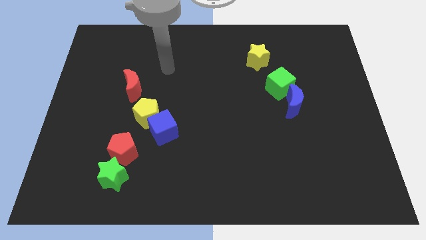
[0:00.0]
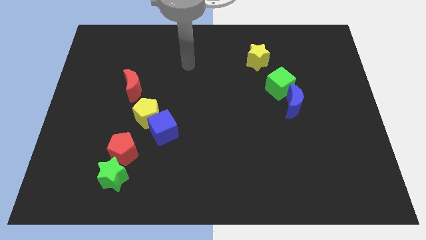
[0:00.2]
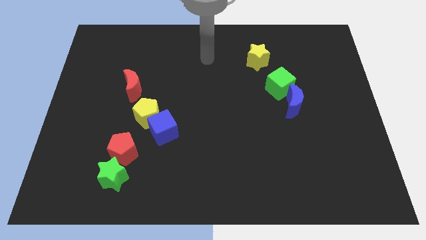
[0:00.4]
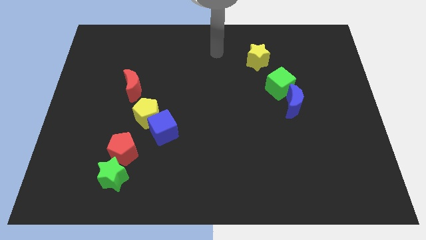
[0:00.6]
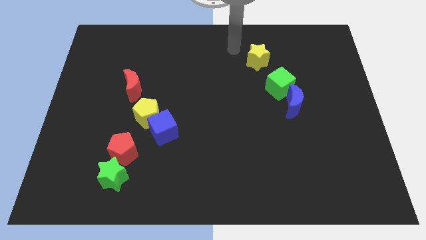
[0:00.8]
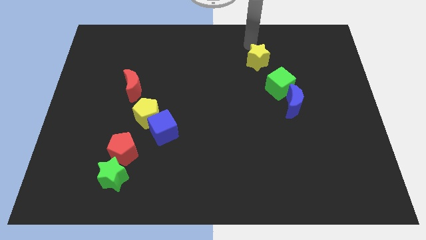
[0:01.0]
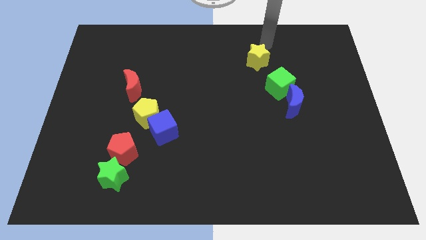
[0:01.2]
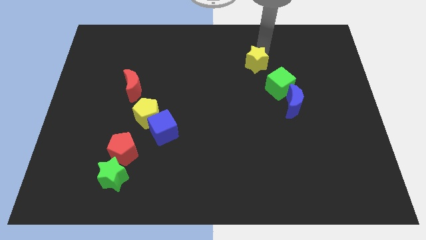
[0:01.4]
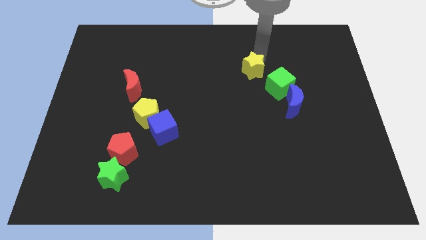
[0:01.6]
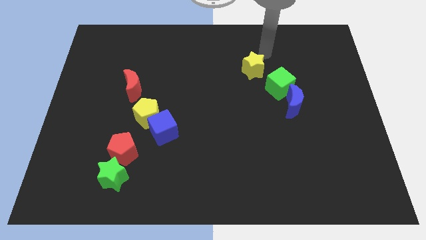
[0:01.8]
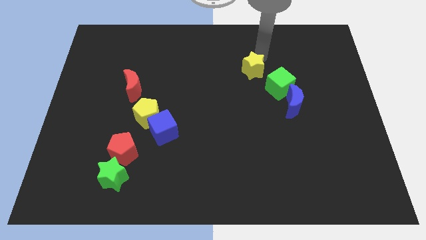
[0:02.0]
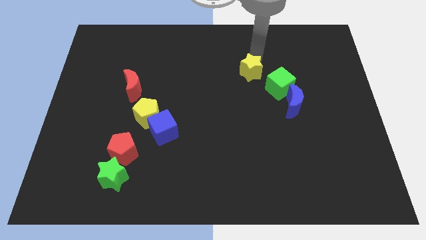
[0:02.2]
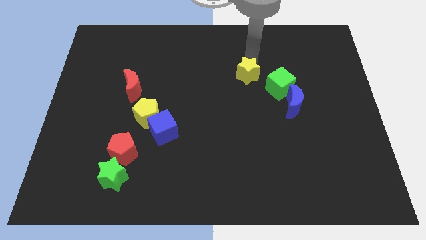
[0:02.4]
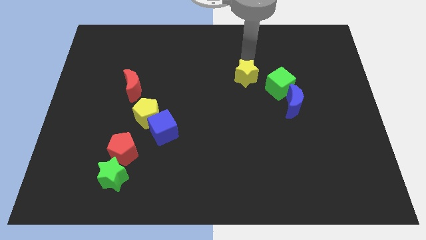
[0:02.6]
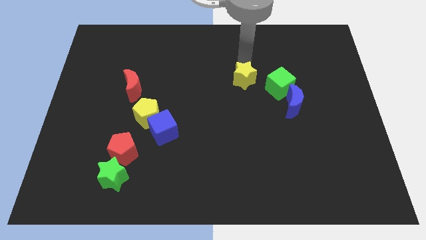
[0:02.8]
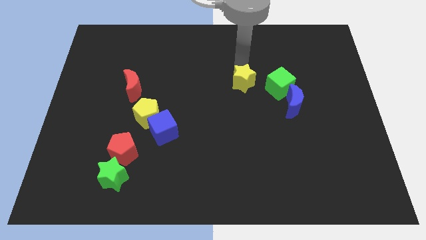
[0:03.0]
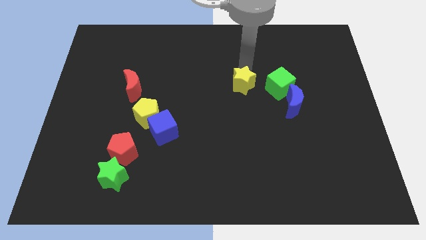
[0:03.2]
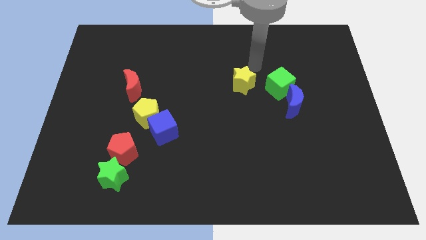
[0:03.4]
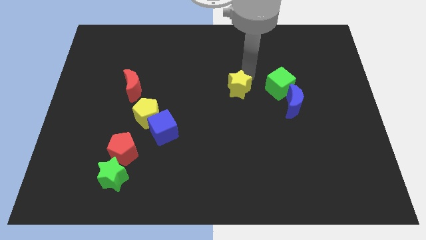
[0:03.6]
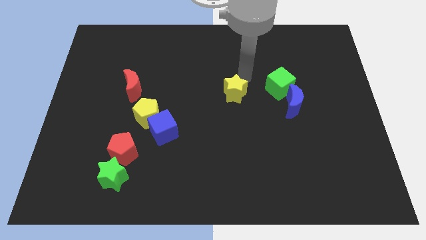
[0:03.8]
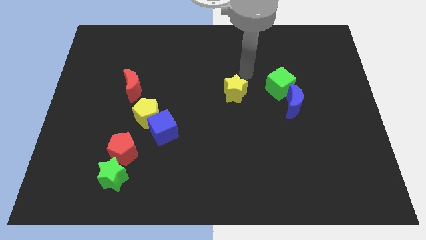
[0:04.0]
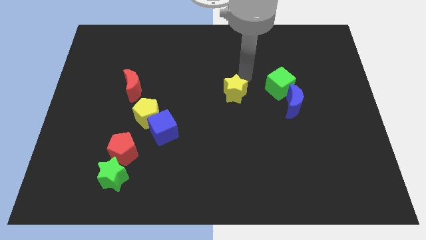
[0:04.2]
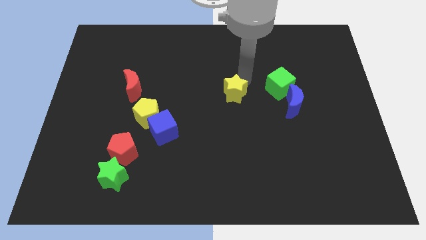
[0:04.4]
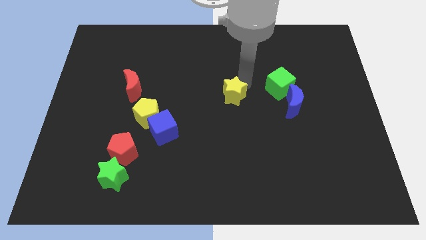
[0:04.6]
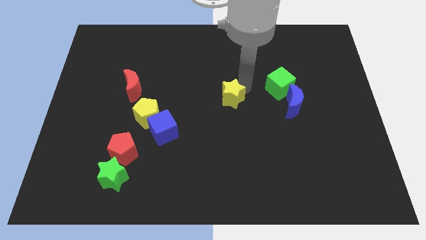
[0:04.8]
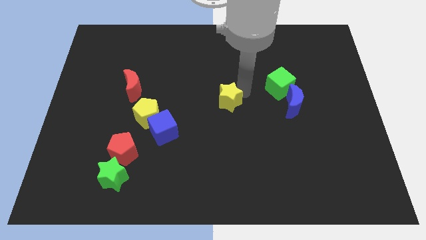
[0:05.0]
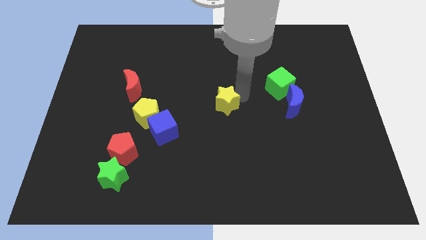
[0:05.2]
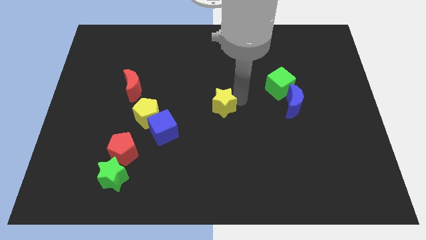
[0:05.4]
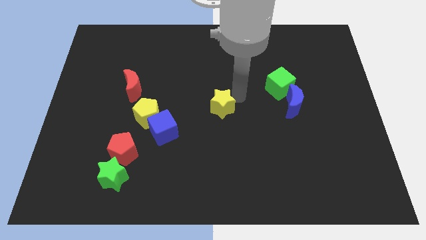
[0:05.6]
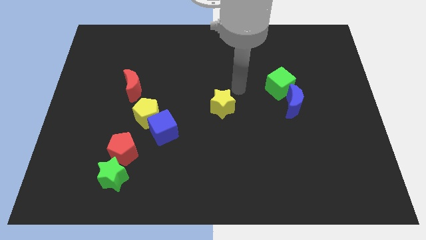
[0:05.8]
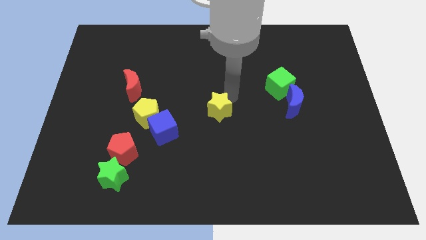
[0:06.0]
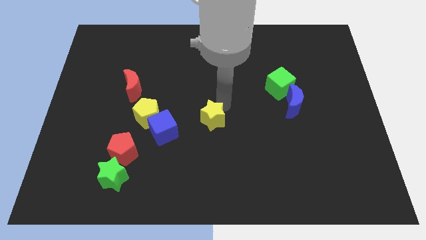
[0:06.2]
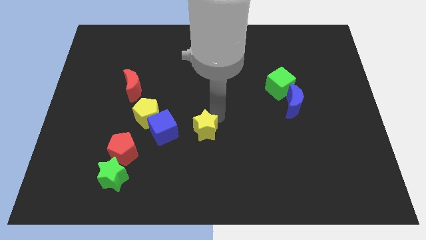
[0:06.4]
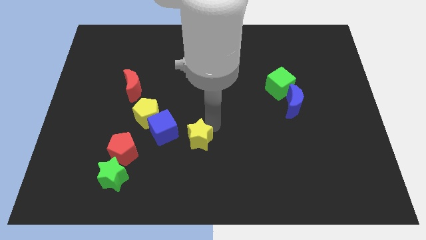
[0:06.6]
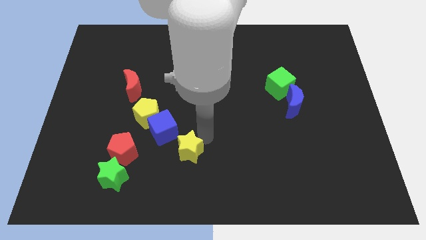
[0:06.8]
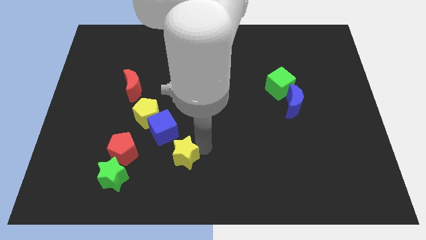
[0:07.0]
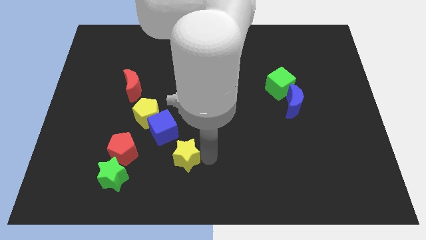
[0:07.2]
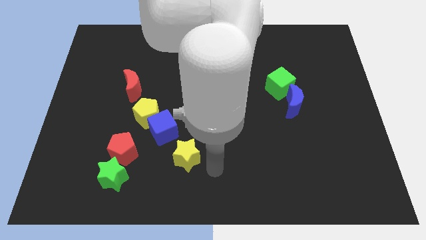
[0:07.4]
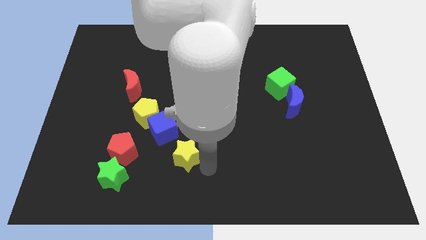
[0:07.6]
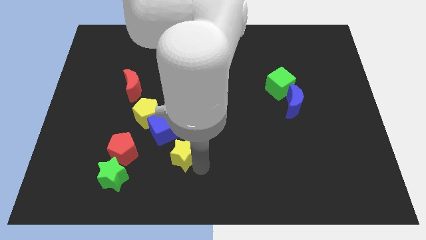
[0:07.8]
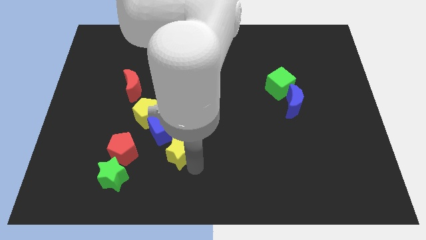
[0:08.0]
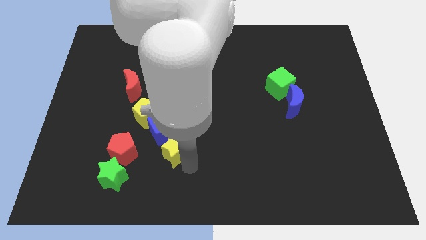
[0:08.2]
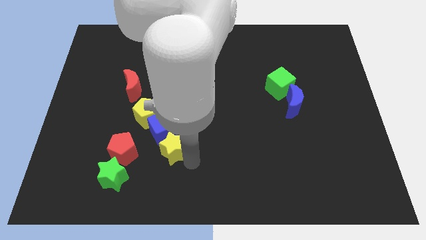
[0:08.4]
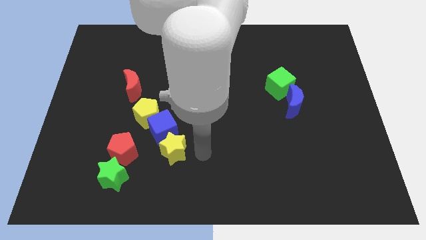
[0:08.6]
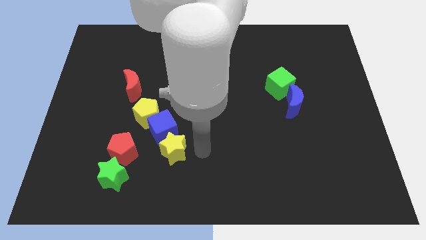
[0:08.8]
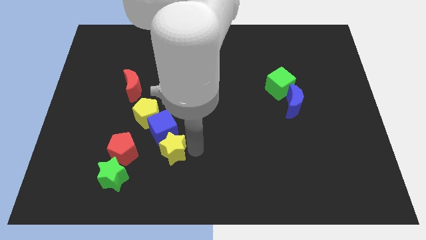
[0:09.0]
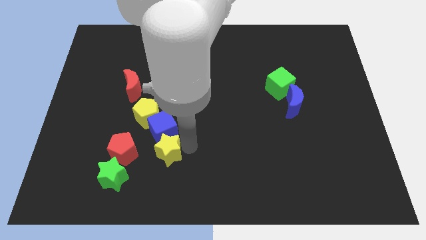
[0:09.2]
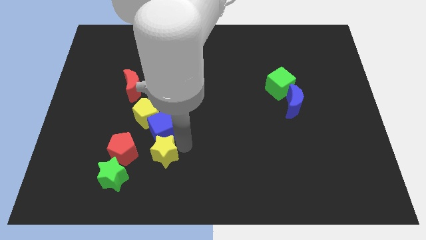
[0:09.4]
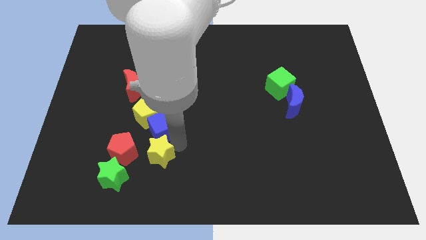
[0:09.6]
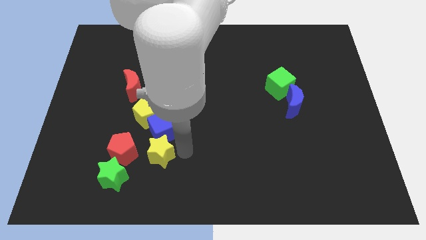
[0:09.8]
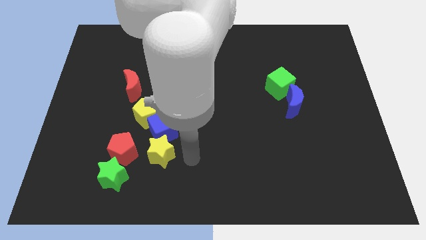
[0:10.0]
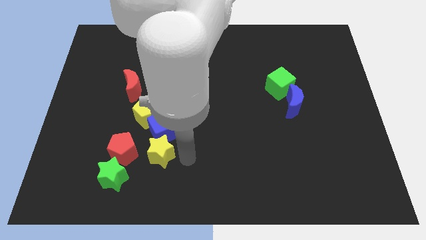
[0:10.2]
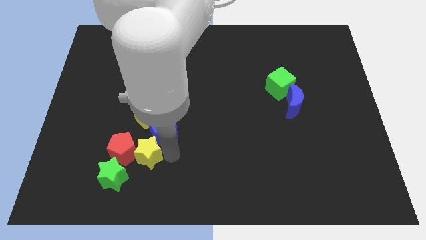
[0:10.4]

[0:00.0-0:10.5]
slide the yellow star close to the red pentagon

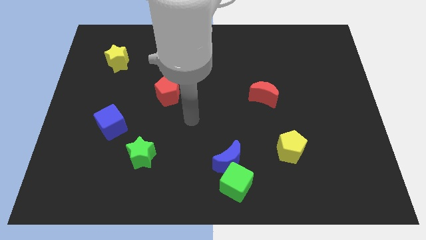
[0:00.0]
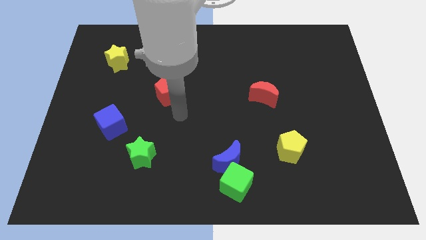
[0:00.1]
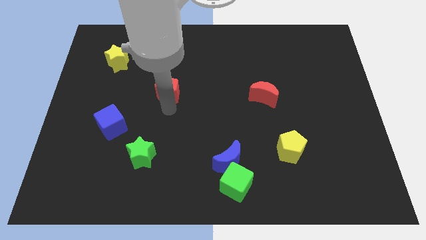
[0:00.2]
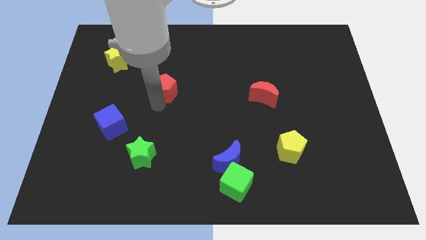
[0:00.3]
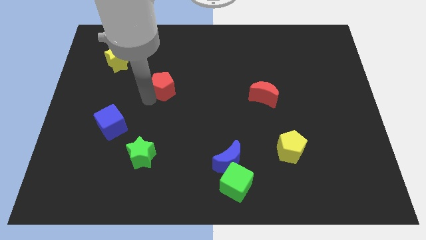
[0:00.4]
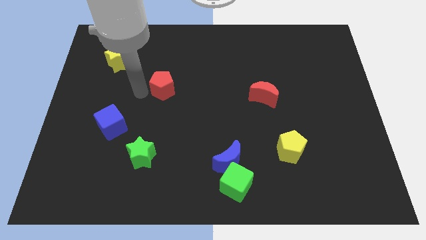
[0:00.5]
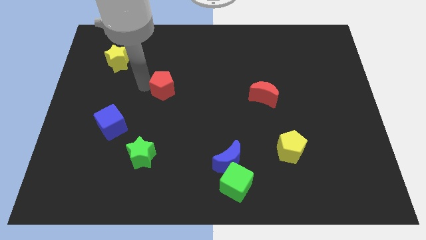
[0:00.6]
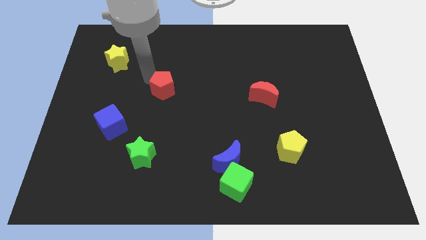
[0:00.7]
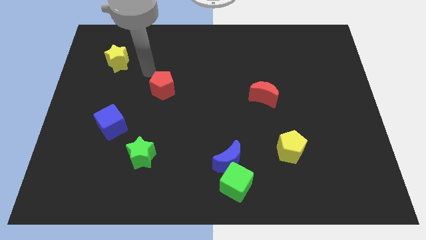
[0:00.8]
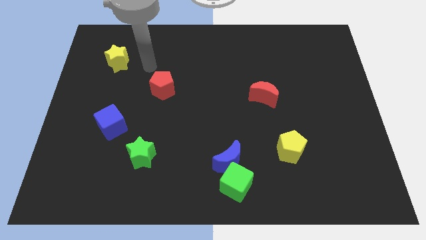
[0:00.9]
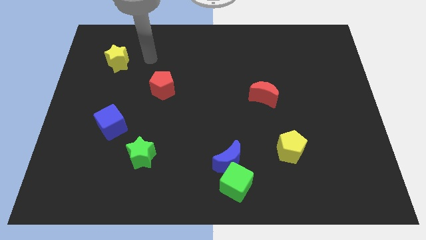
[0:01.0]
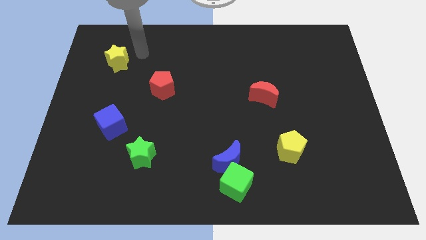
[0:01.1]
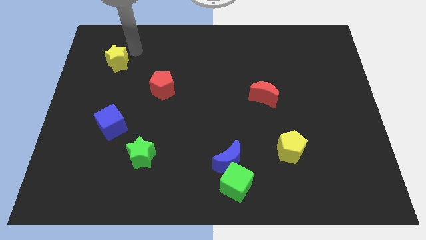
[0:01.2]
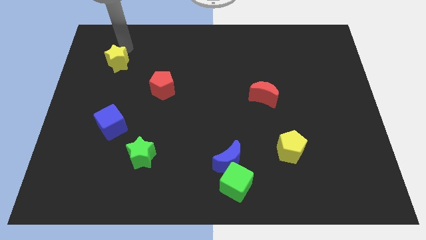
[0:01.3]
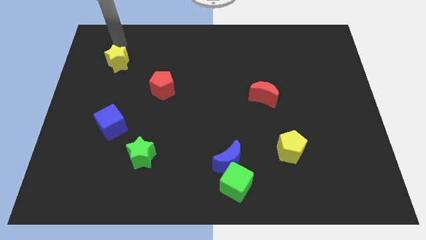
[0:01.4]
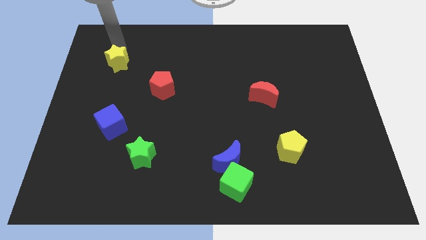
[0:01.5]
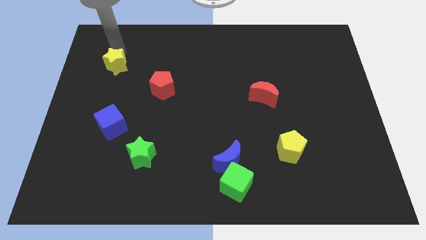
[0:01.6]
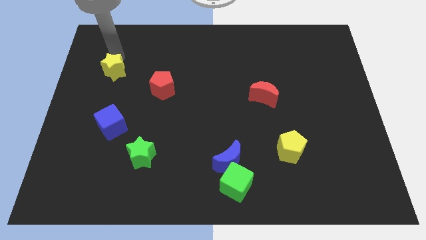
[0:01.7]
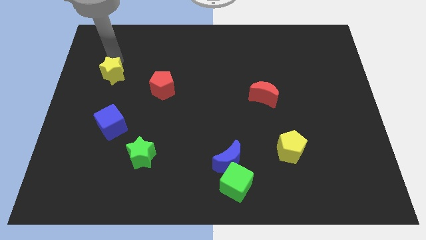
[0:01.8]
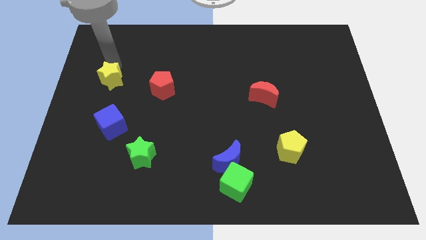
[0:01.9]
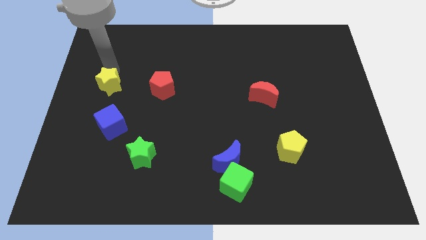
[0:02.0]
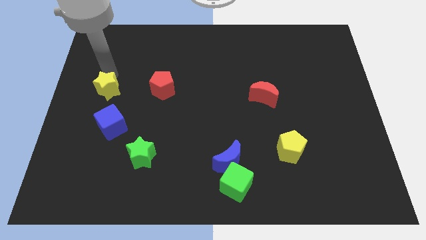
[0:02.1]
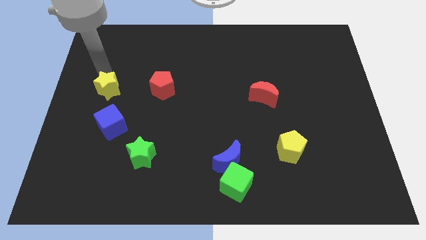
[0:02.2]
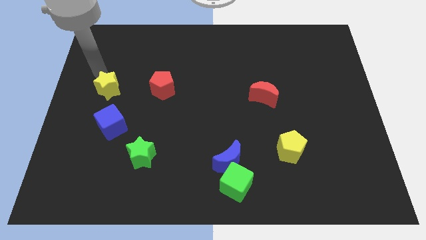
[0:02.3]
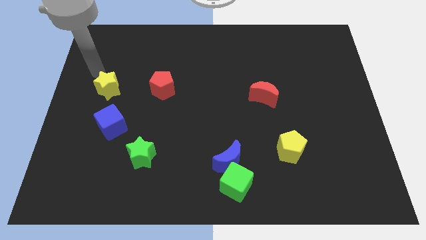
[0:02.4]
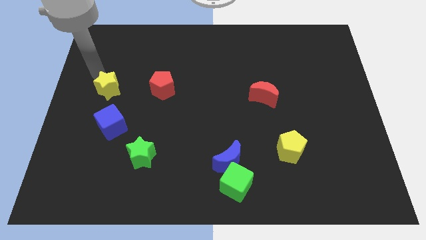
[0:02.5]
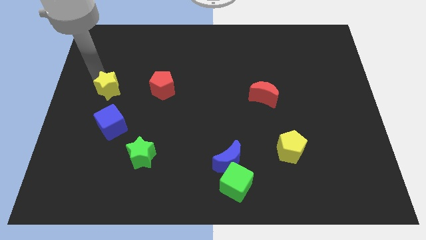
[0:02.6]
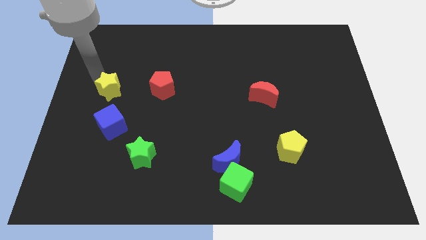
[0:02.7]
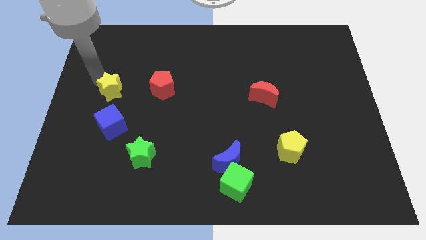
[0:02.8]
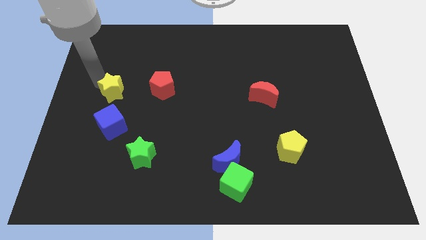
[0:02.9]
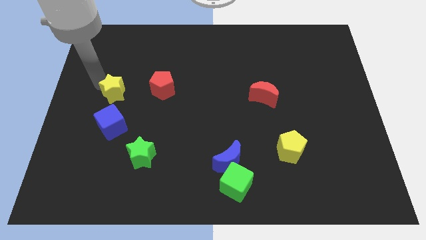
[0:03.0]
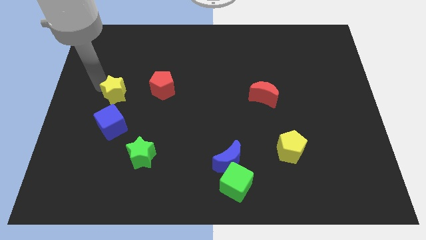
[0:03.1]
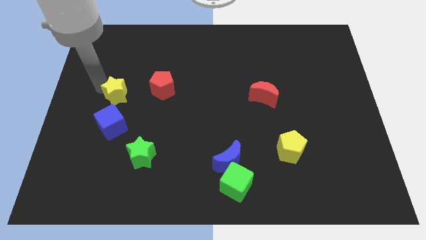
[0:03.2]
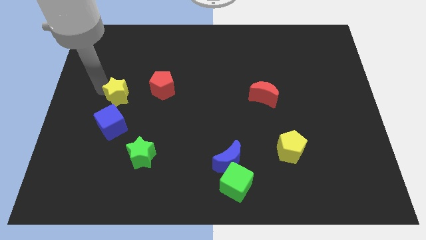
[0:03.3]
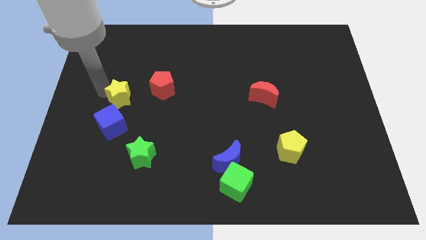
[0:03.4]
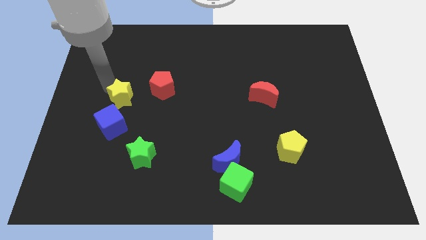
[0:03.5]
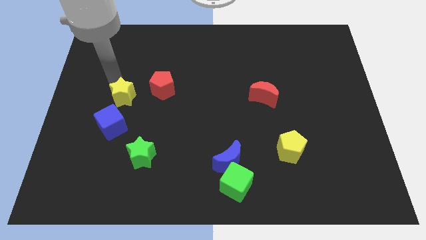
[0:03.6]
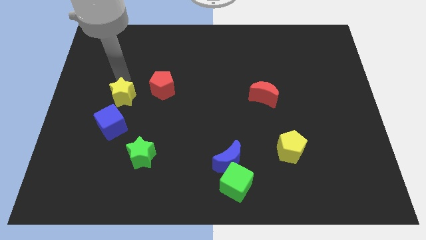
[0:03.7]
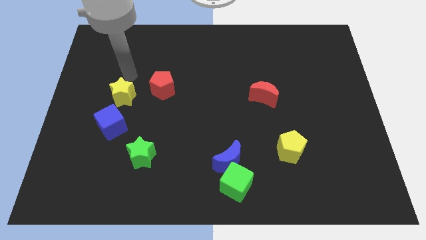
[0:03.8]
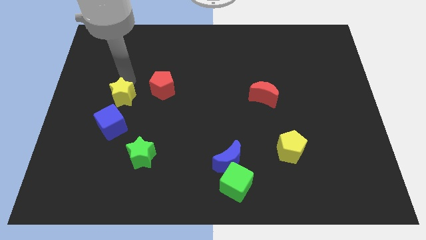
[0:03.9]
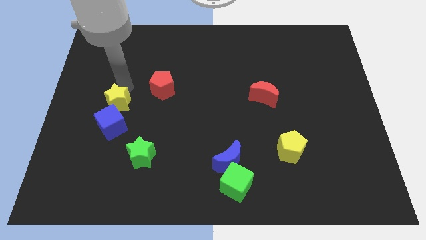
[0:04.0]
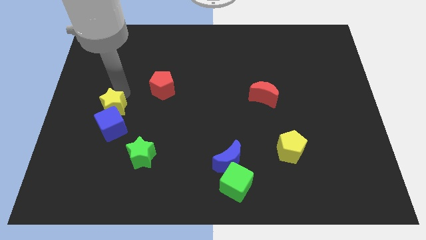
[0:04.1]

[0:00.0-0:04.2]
push the yellow star next to the blue cube
